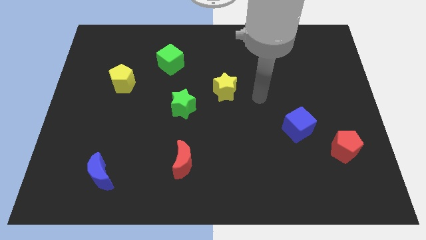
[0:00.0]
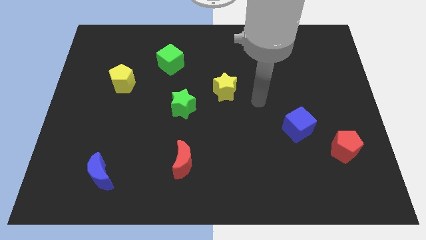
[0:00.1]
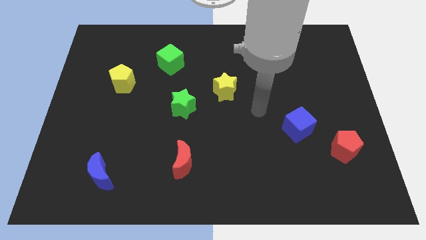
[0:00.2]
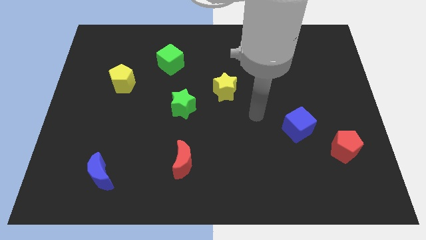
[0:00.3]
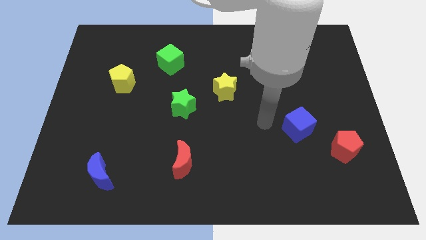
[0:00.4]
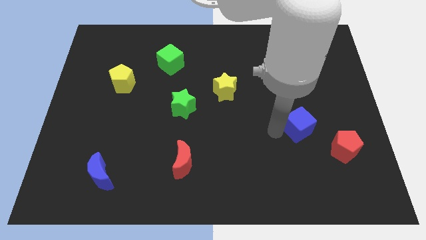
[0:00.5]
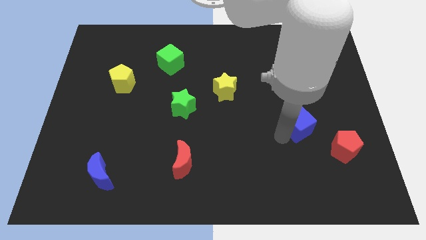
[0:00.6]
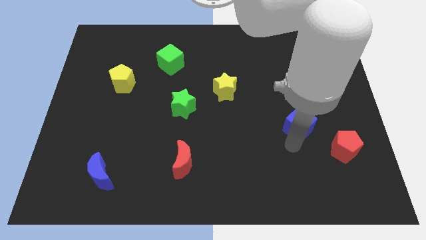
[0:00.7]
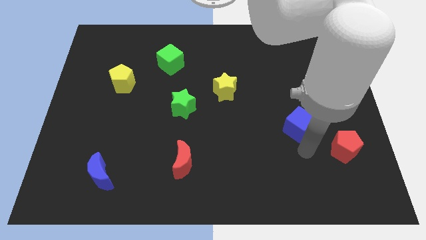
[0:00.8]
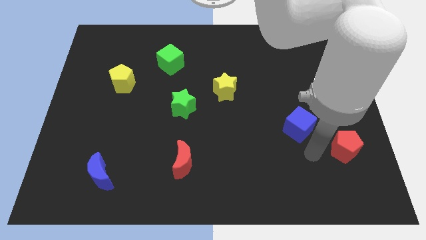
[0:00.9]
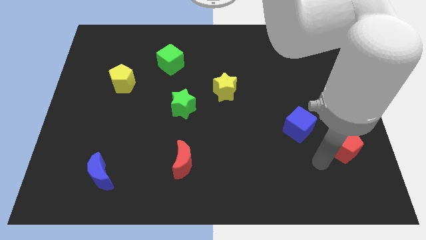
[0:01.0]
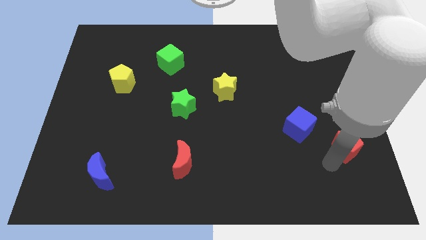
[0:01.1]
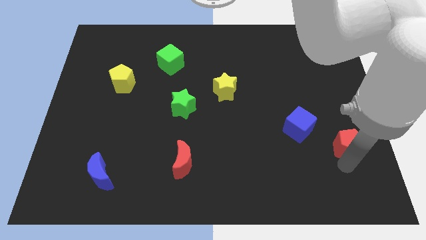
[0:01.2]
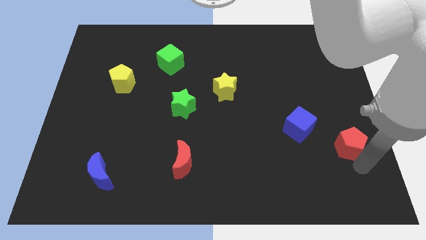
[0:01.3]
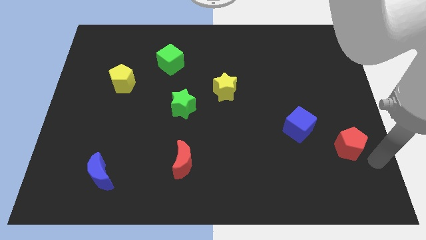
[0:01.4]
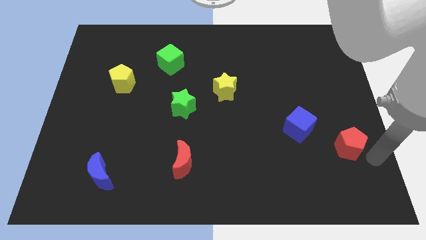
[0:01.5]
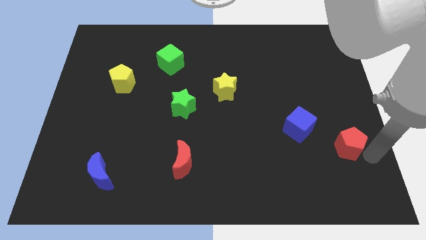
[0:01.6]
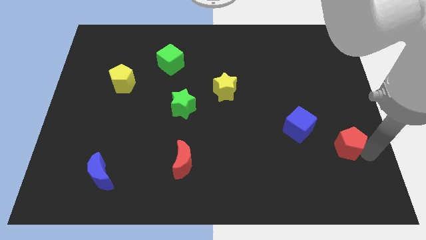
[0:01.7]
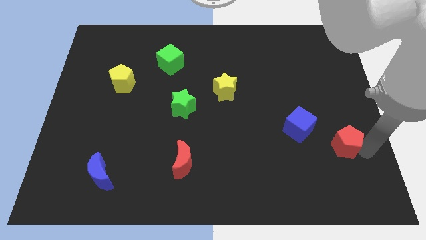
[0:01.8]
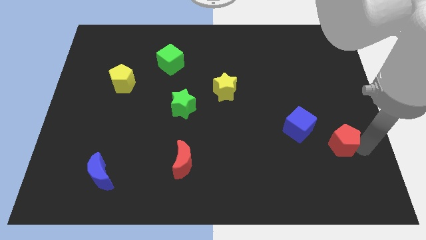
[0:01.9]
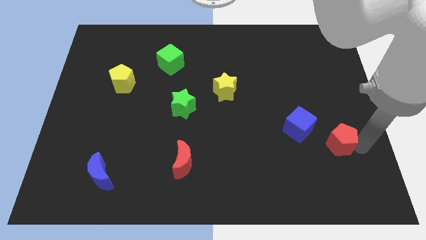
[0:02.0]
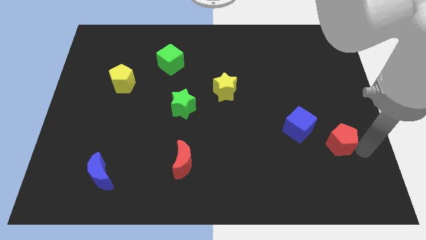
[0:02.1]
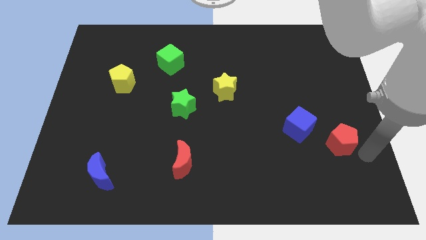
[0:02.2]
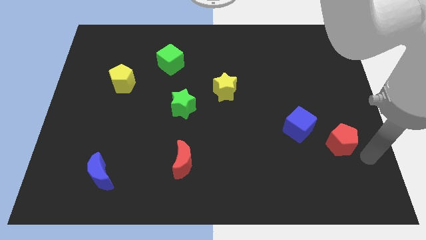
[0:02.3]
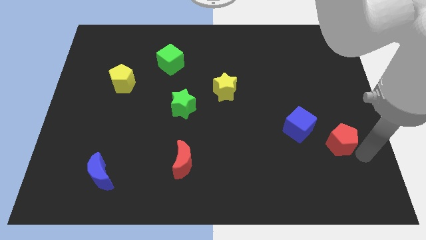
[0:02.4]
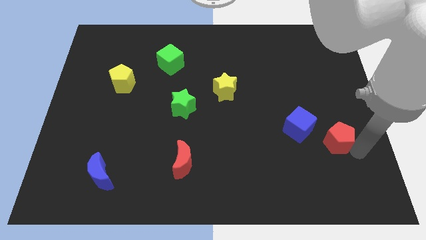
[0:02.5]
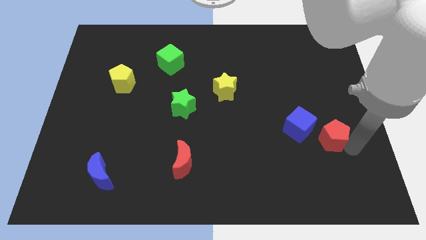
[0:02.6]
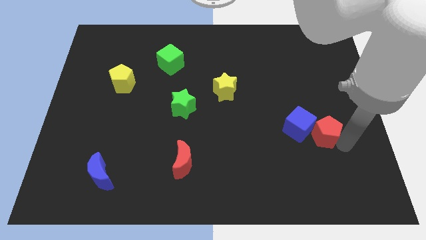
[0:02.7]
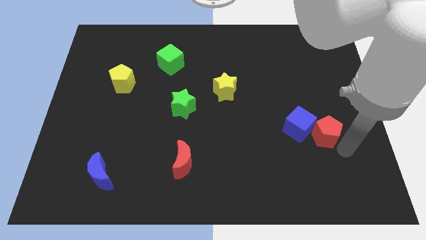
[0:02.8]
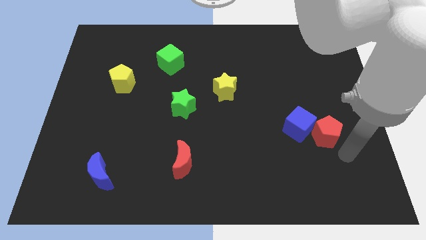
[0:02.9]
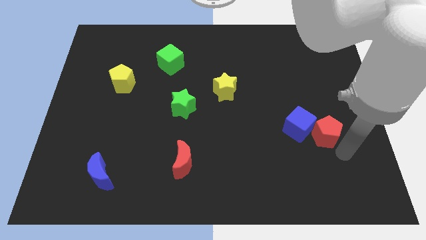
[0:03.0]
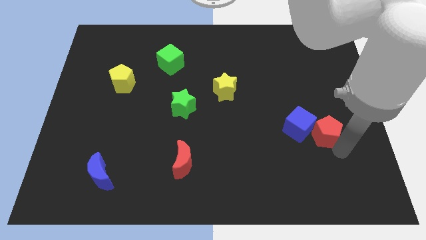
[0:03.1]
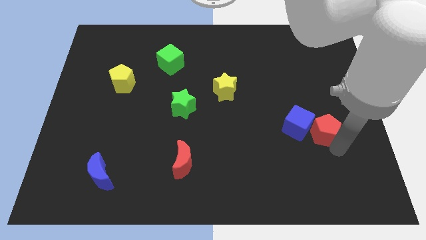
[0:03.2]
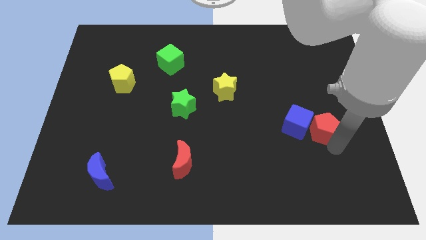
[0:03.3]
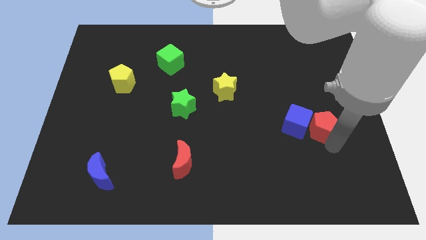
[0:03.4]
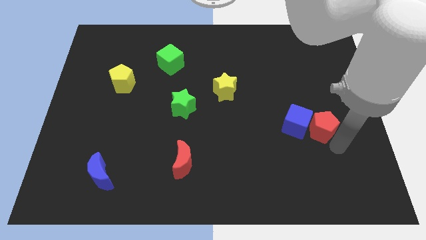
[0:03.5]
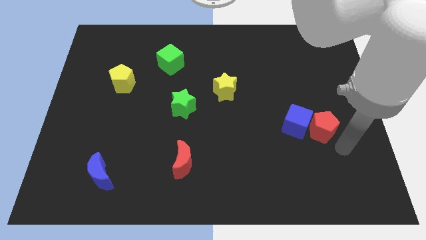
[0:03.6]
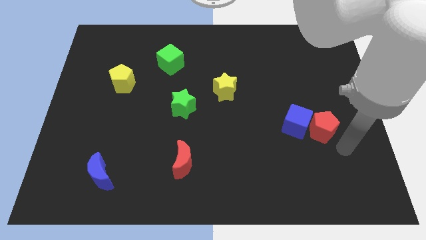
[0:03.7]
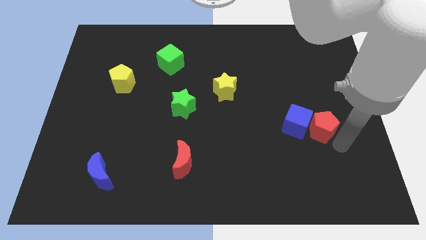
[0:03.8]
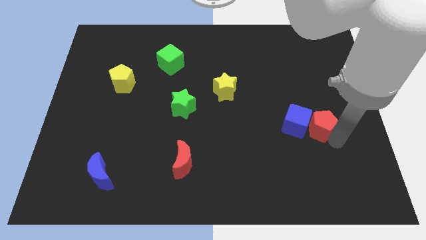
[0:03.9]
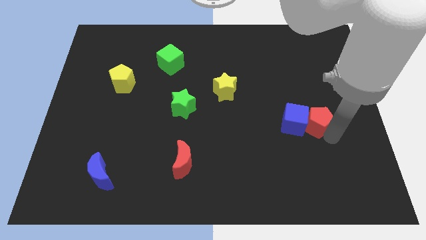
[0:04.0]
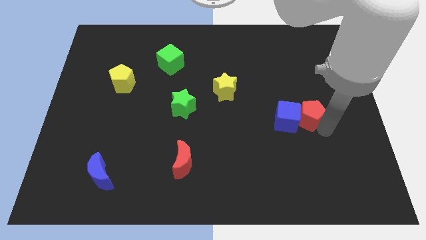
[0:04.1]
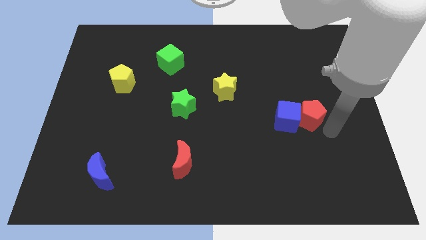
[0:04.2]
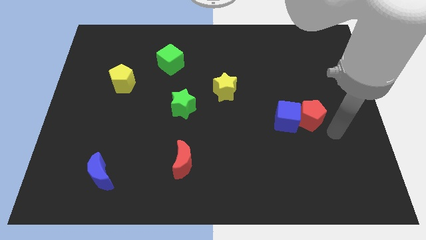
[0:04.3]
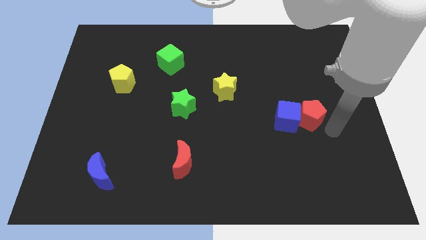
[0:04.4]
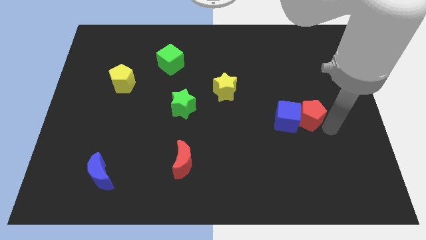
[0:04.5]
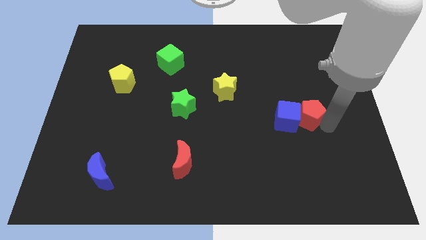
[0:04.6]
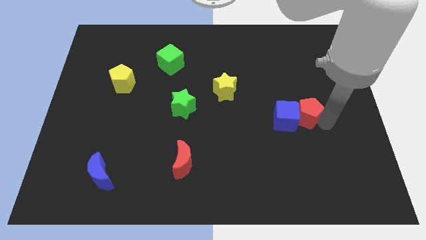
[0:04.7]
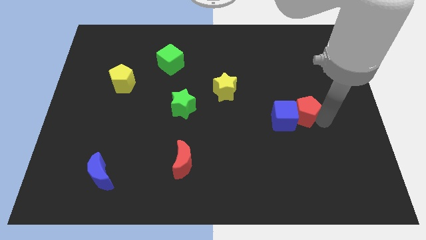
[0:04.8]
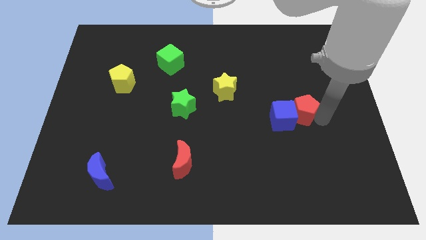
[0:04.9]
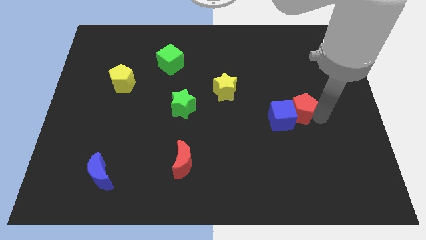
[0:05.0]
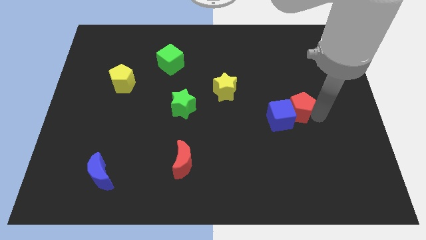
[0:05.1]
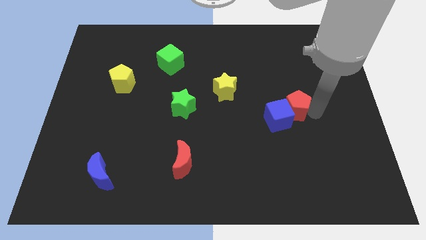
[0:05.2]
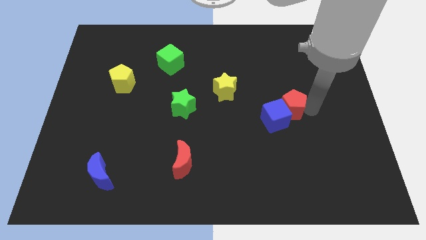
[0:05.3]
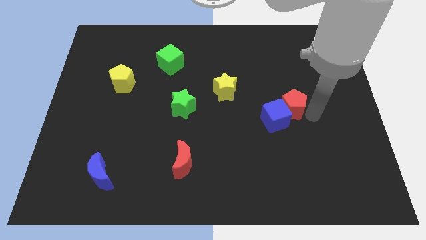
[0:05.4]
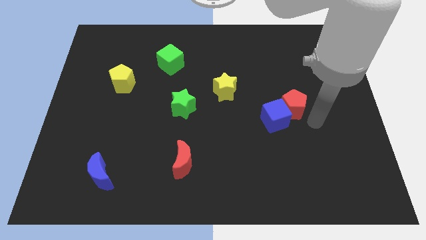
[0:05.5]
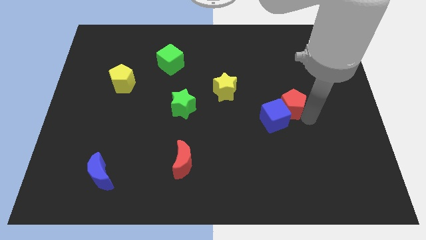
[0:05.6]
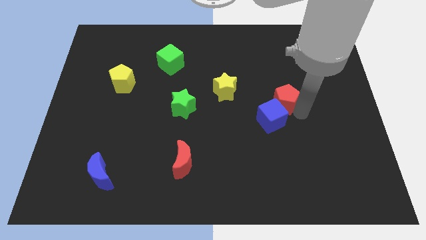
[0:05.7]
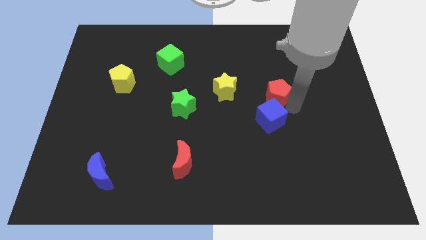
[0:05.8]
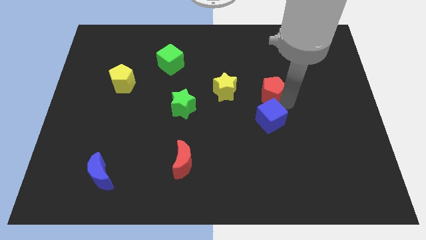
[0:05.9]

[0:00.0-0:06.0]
slide the red pentagon up and then to the left

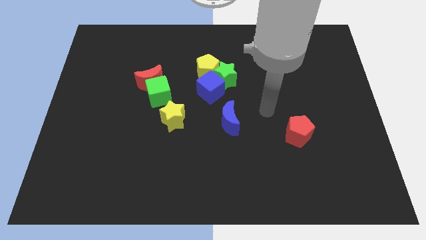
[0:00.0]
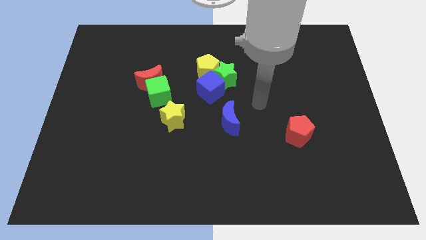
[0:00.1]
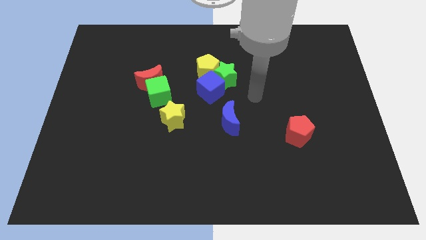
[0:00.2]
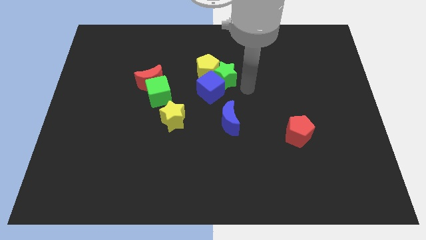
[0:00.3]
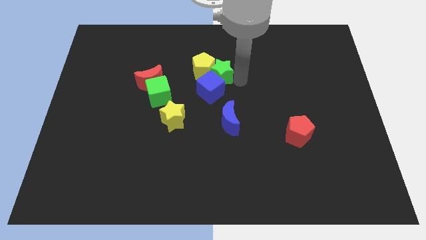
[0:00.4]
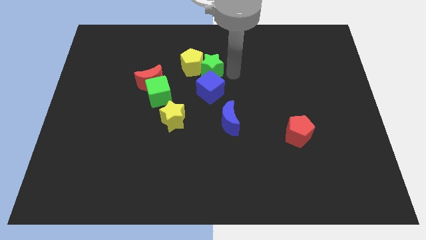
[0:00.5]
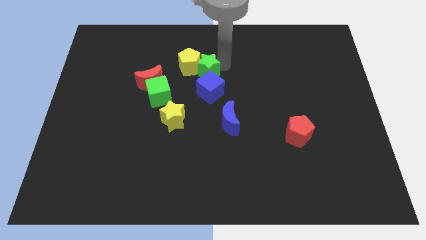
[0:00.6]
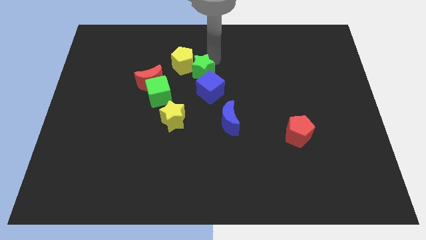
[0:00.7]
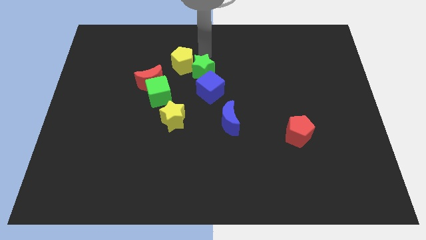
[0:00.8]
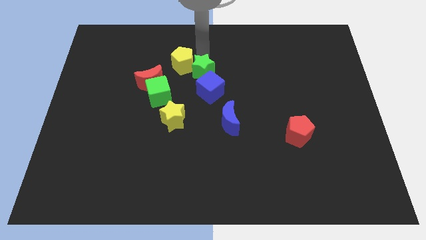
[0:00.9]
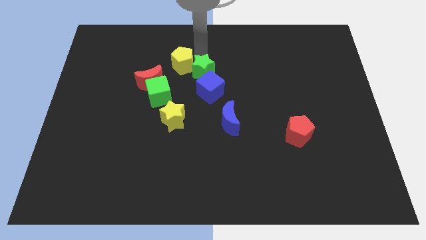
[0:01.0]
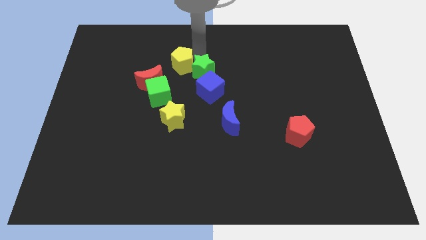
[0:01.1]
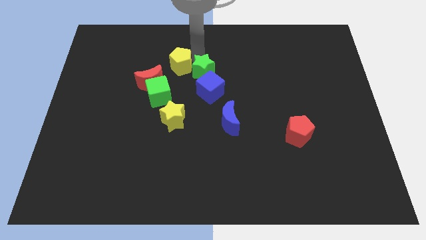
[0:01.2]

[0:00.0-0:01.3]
slightly slide the yellow pentagon left

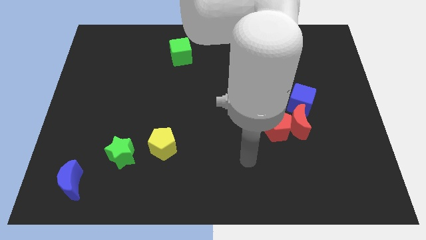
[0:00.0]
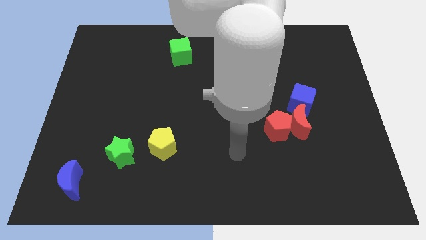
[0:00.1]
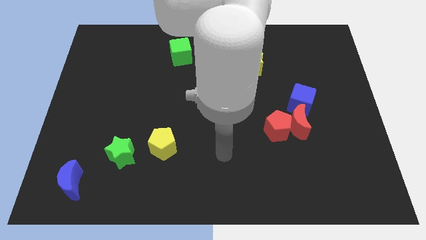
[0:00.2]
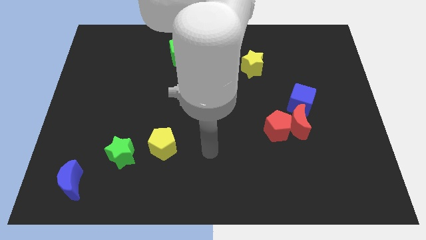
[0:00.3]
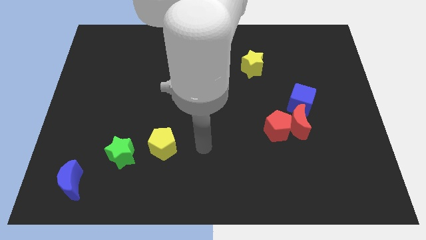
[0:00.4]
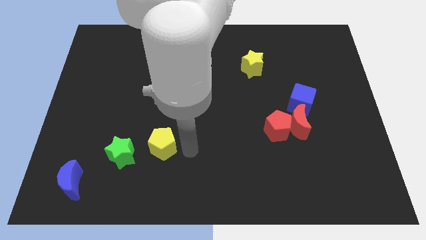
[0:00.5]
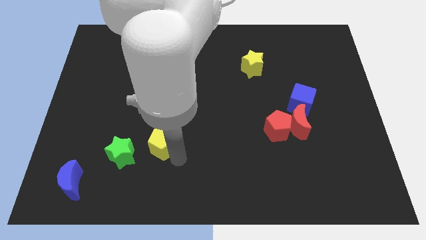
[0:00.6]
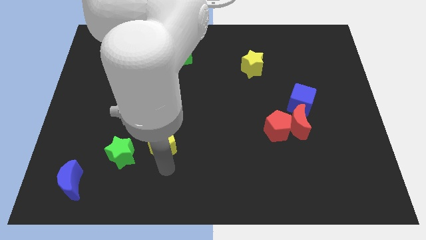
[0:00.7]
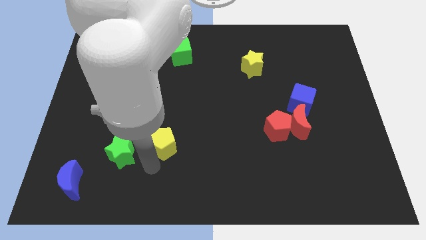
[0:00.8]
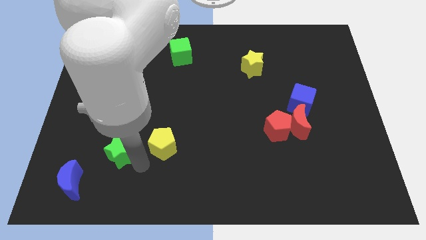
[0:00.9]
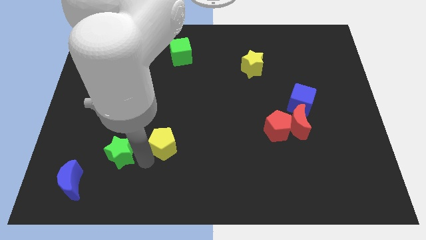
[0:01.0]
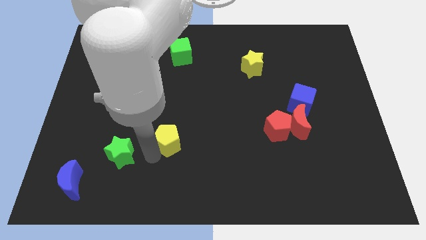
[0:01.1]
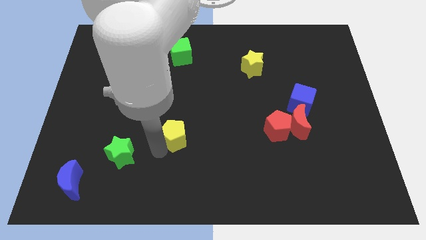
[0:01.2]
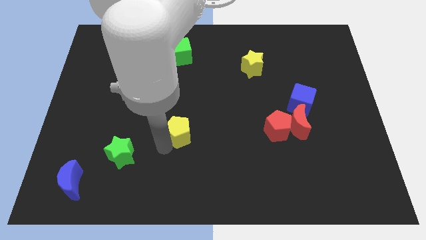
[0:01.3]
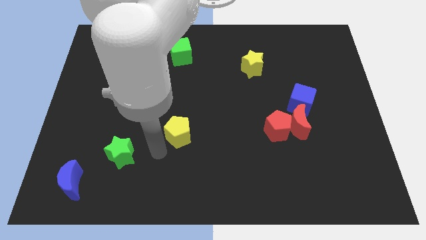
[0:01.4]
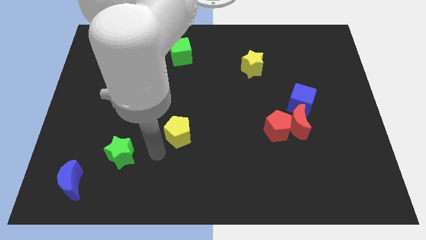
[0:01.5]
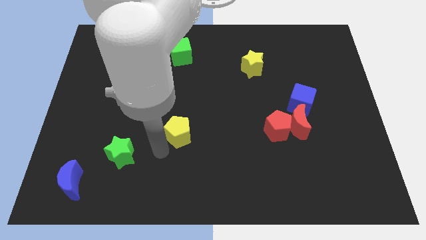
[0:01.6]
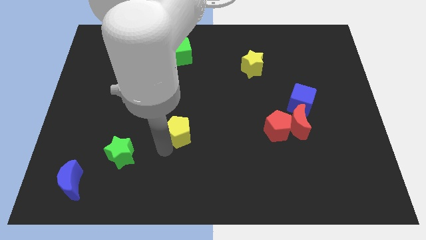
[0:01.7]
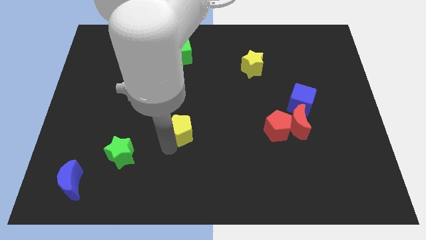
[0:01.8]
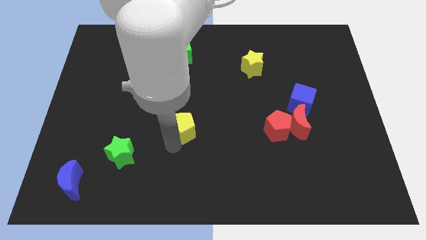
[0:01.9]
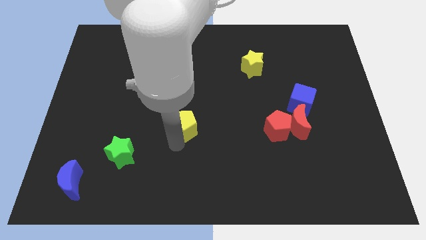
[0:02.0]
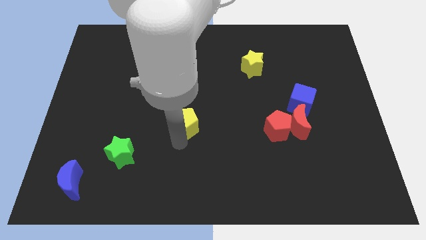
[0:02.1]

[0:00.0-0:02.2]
push the yellow pentagon a bit upwards and to the right
